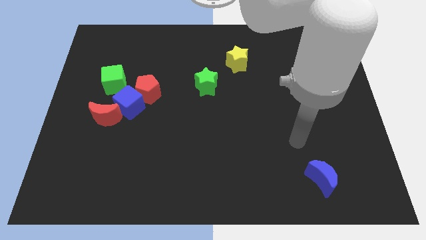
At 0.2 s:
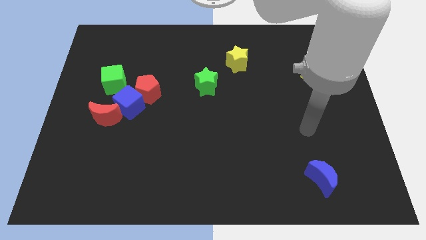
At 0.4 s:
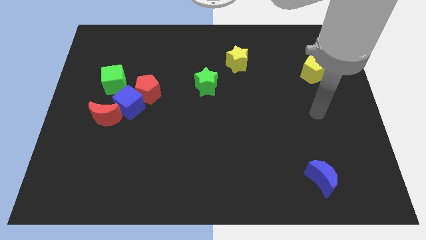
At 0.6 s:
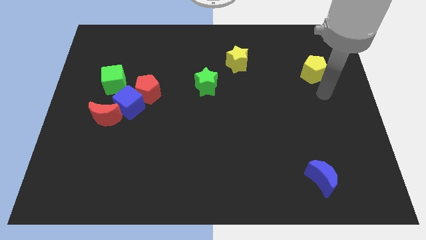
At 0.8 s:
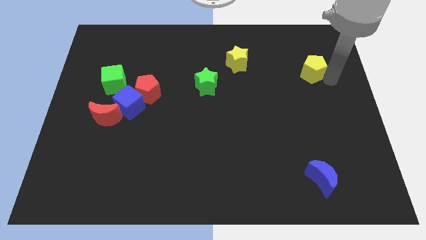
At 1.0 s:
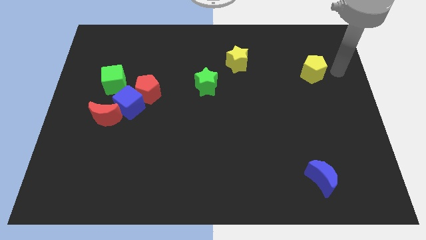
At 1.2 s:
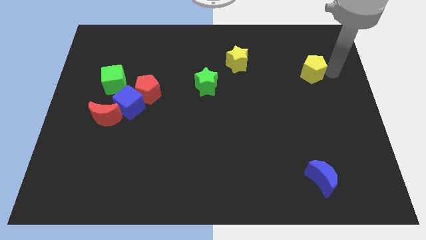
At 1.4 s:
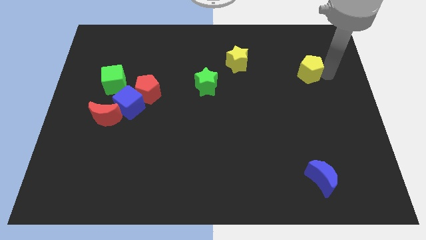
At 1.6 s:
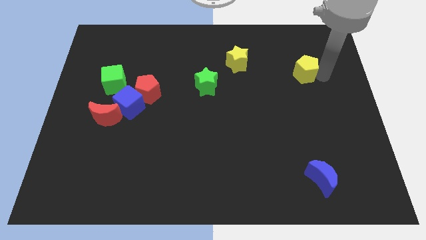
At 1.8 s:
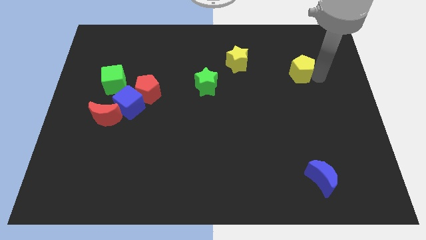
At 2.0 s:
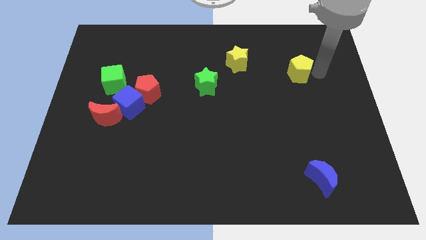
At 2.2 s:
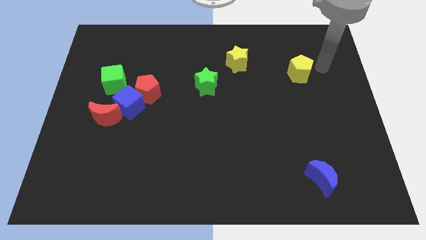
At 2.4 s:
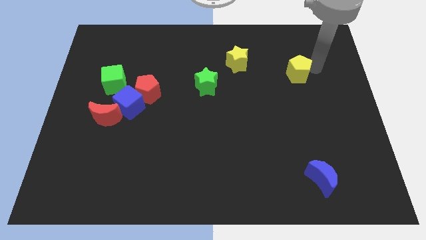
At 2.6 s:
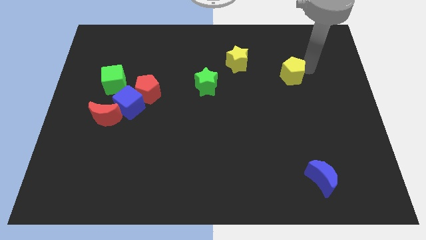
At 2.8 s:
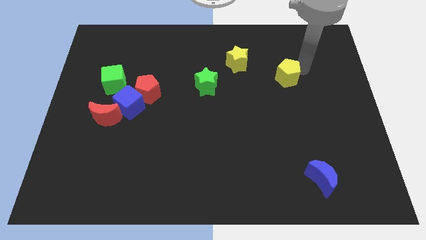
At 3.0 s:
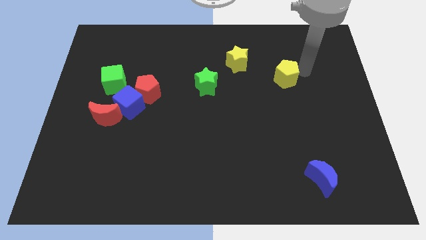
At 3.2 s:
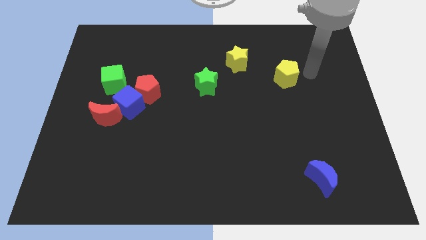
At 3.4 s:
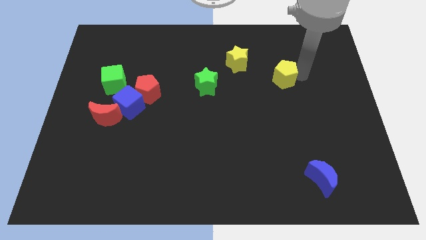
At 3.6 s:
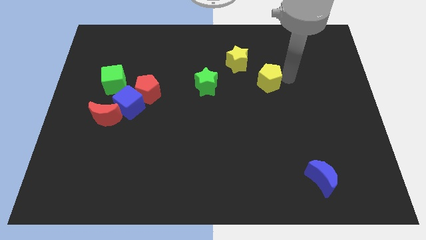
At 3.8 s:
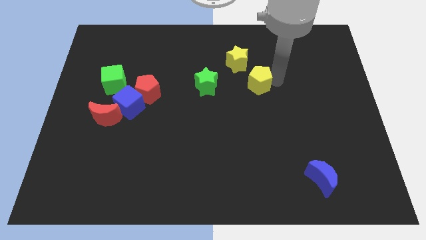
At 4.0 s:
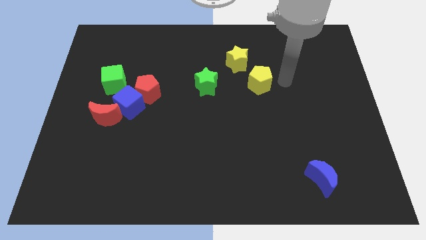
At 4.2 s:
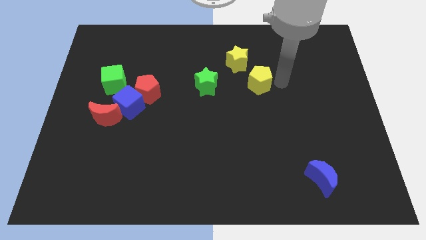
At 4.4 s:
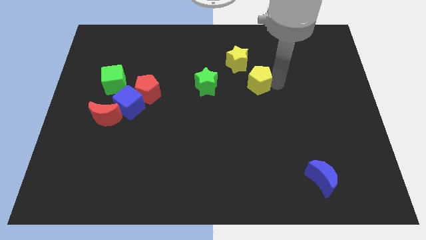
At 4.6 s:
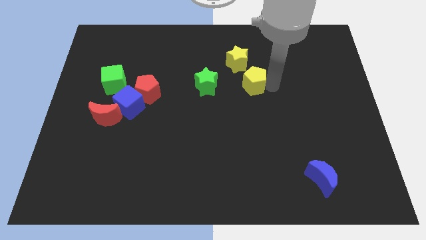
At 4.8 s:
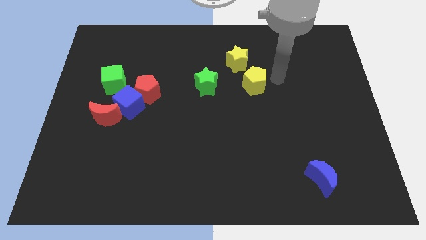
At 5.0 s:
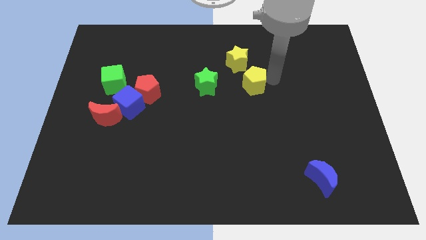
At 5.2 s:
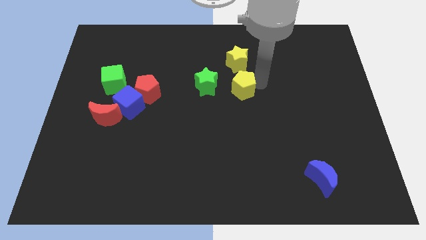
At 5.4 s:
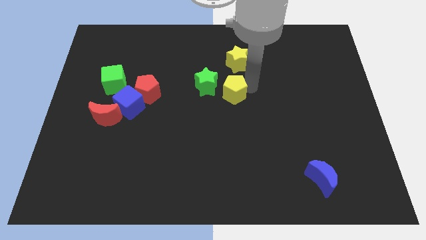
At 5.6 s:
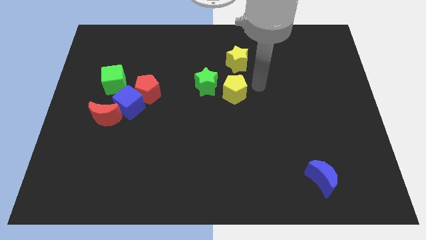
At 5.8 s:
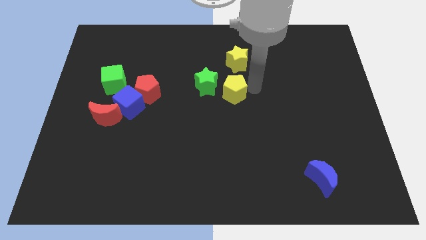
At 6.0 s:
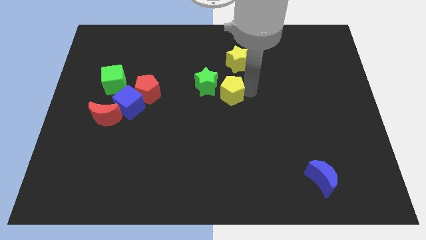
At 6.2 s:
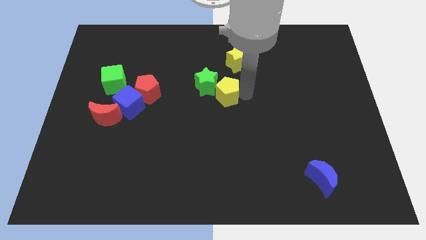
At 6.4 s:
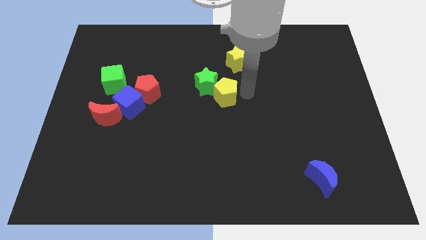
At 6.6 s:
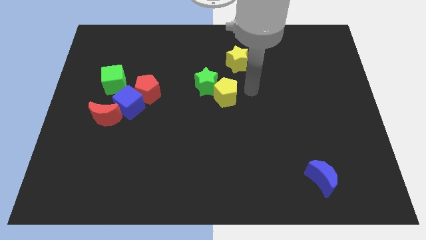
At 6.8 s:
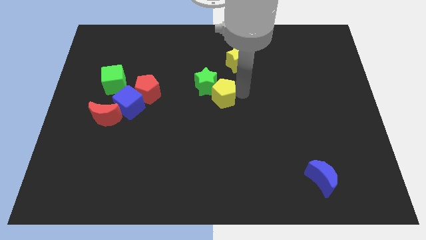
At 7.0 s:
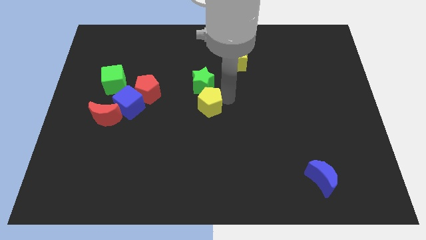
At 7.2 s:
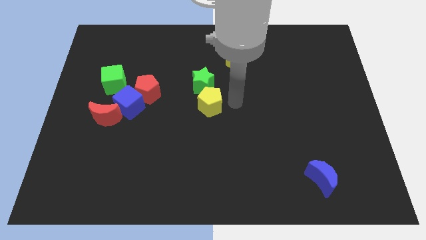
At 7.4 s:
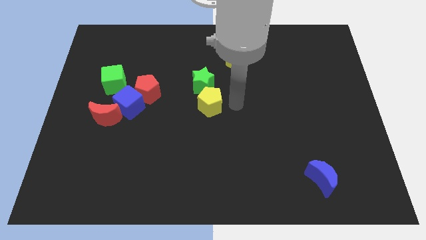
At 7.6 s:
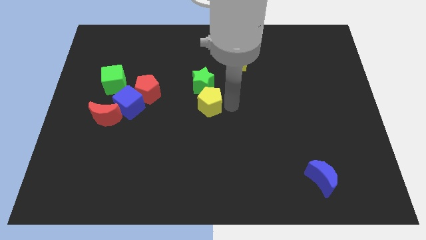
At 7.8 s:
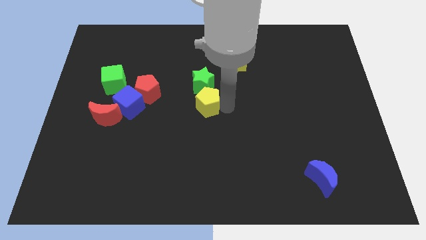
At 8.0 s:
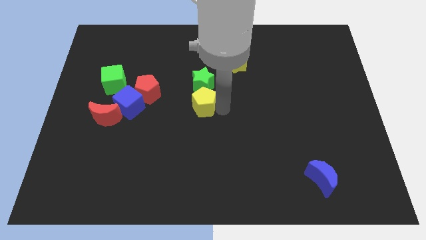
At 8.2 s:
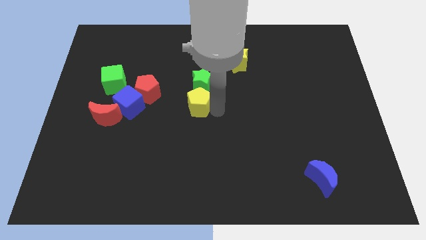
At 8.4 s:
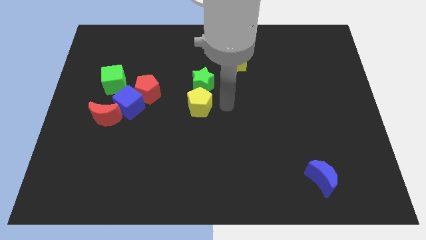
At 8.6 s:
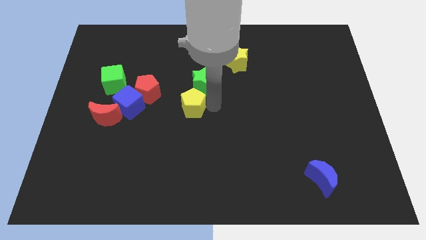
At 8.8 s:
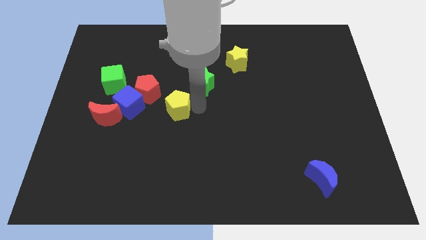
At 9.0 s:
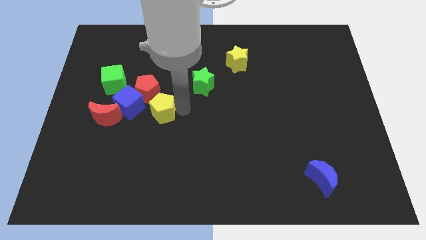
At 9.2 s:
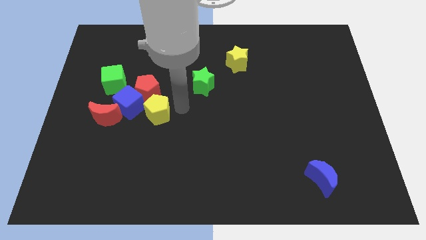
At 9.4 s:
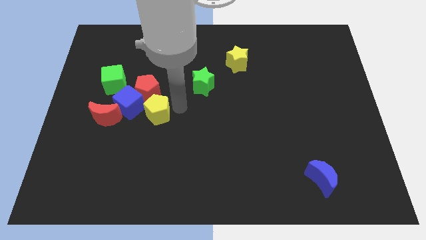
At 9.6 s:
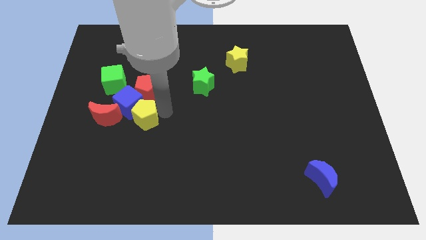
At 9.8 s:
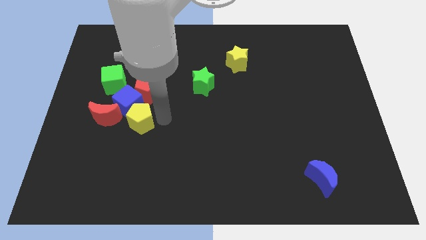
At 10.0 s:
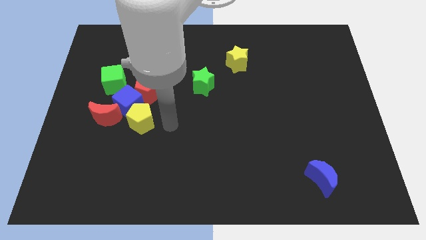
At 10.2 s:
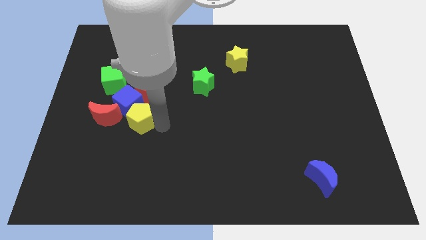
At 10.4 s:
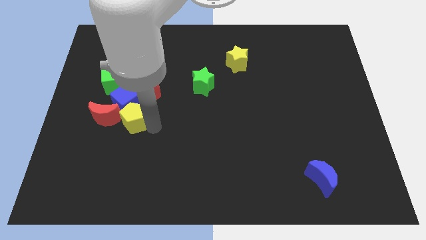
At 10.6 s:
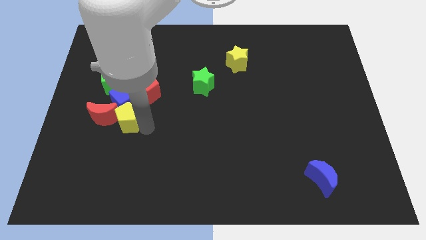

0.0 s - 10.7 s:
move the yellow pentagon to the red moon

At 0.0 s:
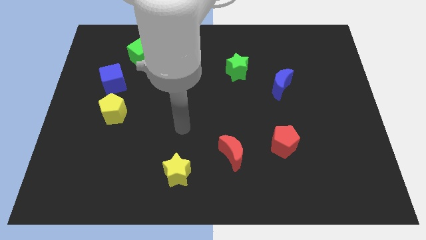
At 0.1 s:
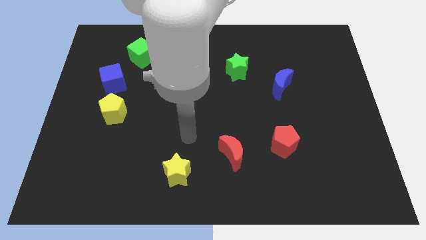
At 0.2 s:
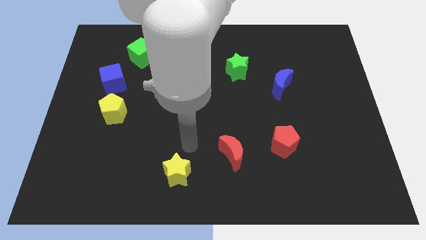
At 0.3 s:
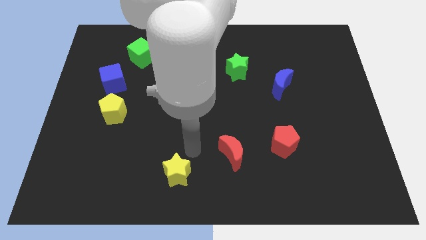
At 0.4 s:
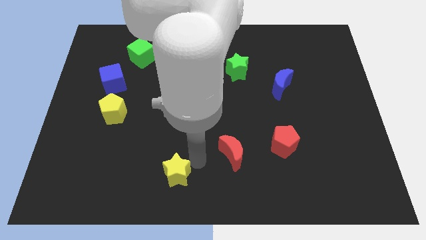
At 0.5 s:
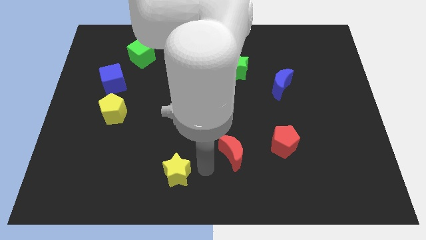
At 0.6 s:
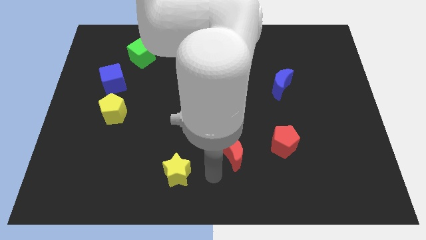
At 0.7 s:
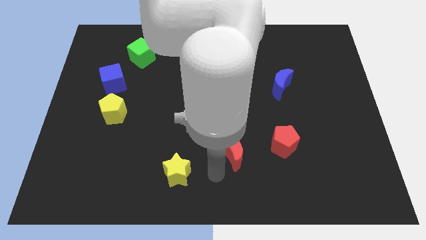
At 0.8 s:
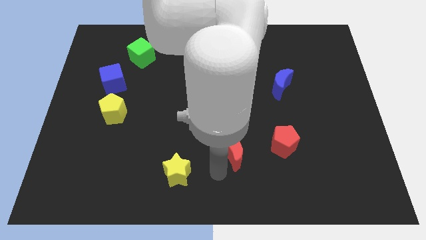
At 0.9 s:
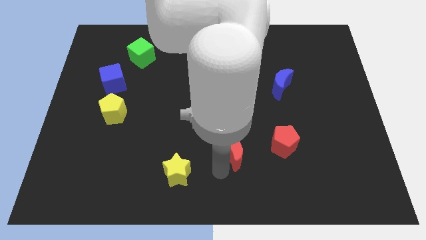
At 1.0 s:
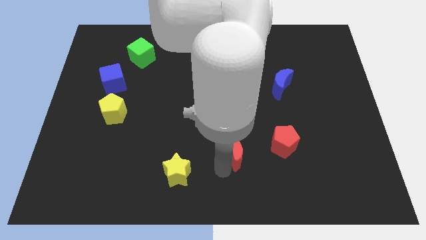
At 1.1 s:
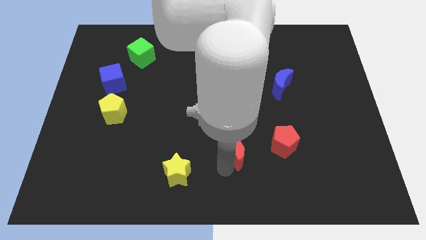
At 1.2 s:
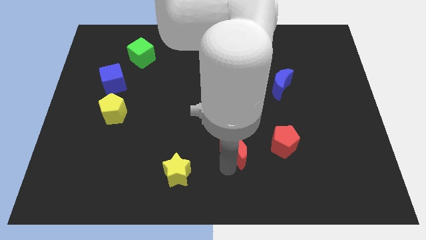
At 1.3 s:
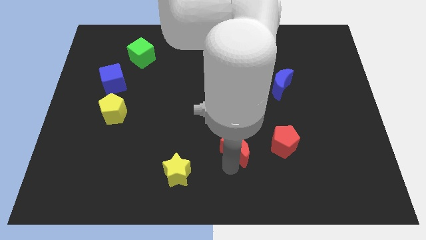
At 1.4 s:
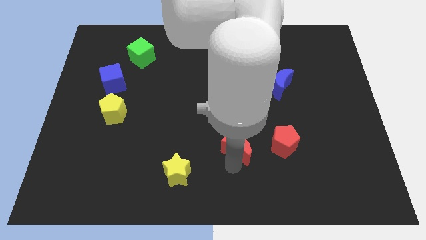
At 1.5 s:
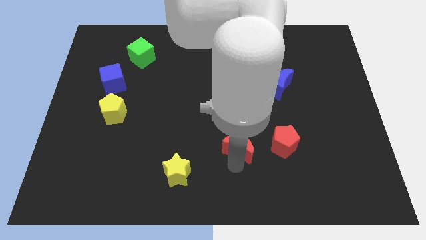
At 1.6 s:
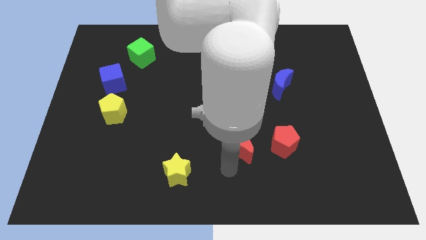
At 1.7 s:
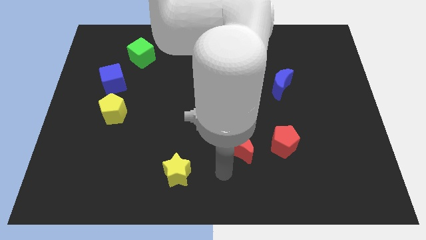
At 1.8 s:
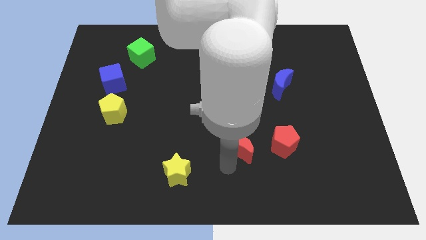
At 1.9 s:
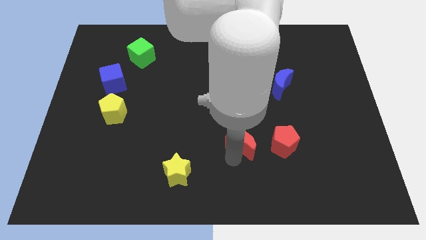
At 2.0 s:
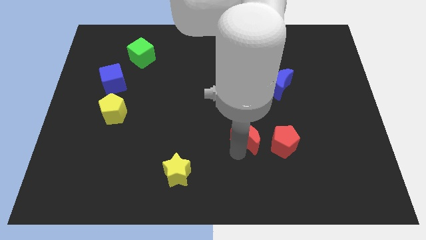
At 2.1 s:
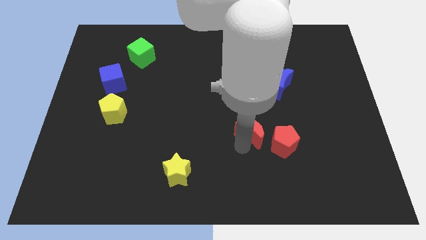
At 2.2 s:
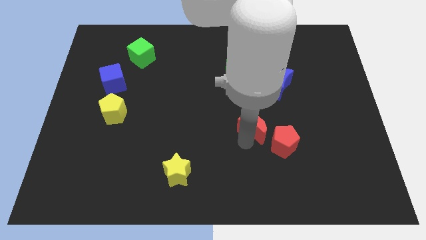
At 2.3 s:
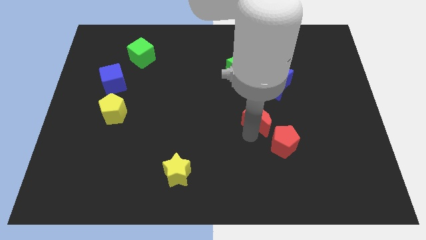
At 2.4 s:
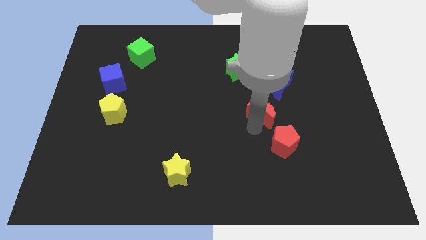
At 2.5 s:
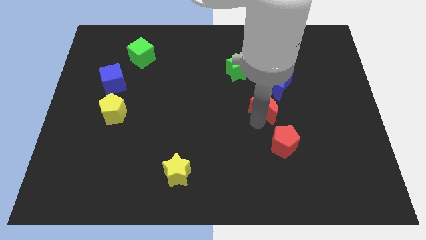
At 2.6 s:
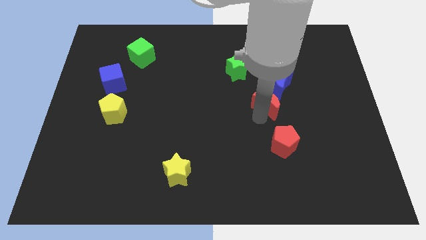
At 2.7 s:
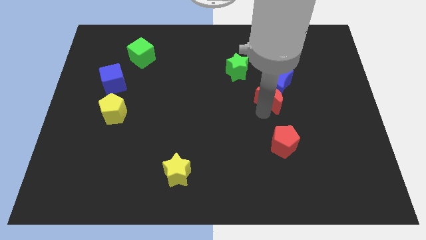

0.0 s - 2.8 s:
move the red moon to the blue moon
